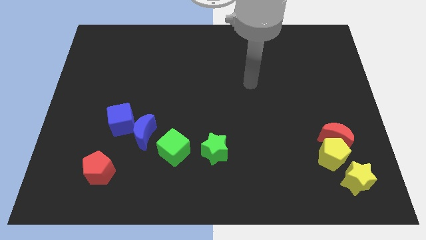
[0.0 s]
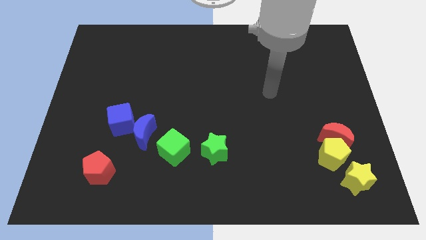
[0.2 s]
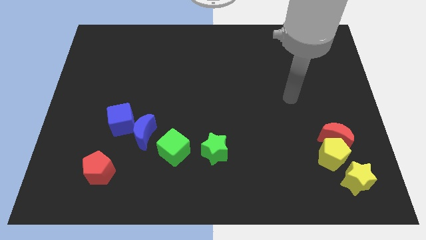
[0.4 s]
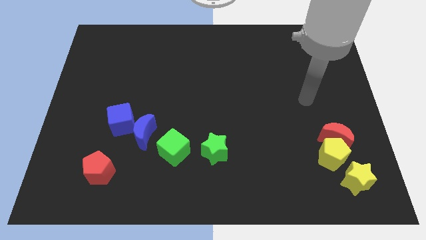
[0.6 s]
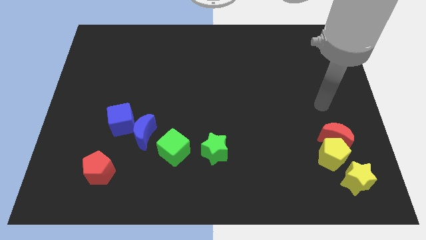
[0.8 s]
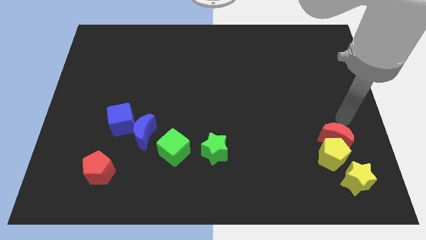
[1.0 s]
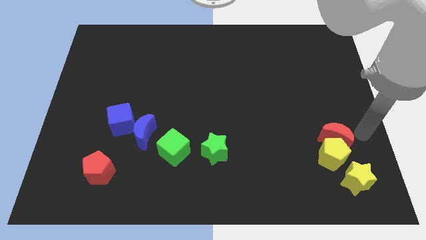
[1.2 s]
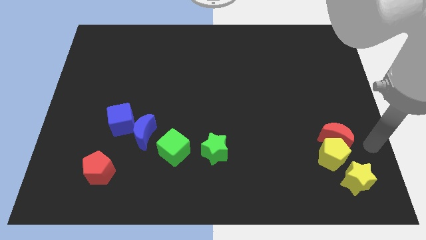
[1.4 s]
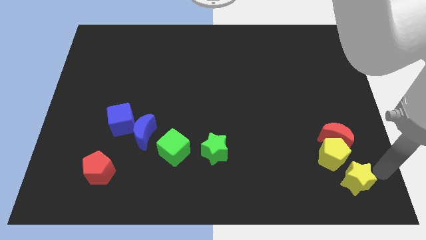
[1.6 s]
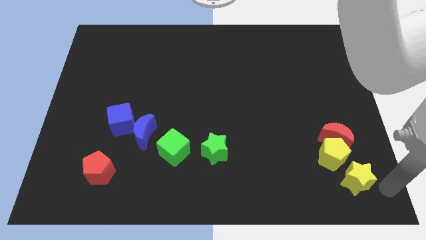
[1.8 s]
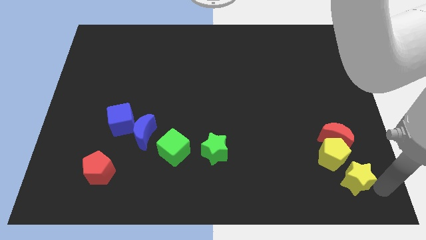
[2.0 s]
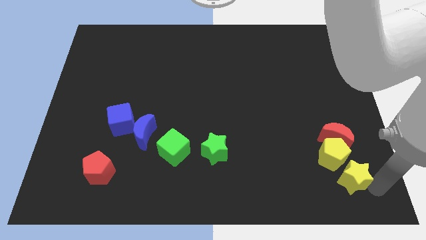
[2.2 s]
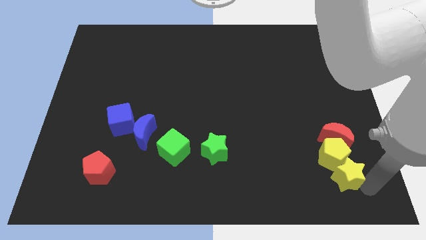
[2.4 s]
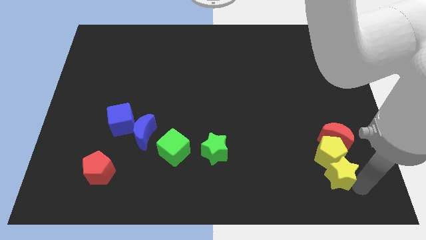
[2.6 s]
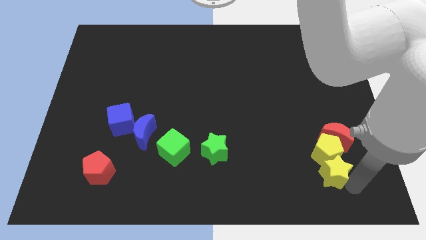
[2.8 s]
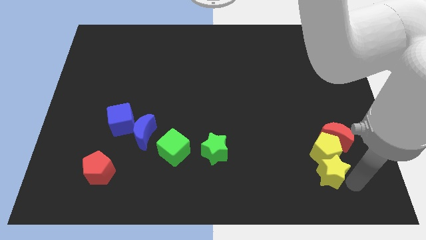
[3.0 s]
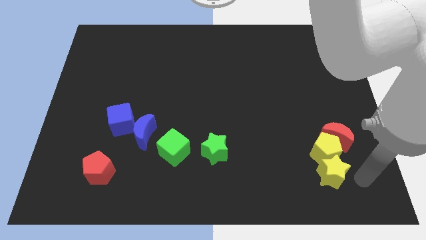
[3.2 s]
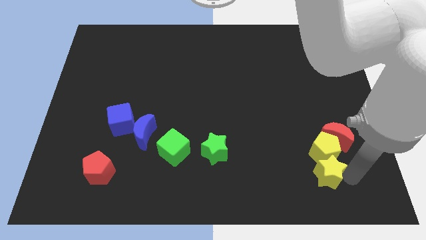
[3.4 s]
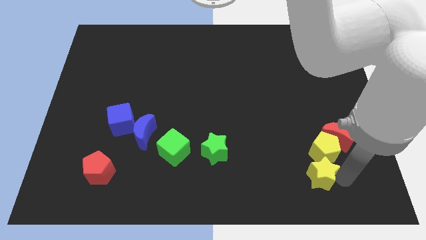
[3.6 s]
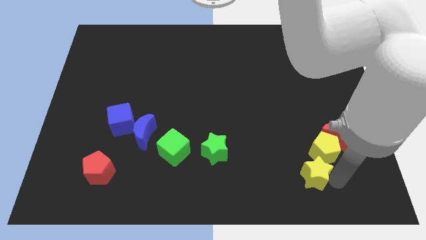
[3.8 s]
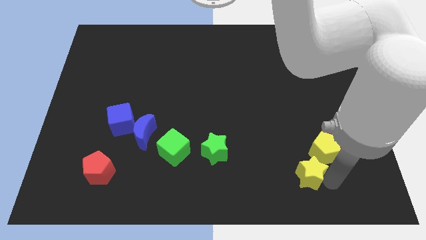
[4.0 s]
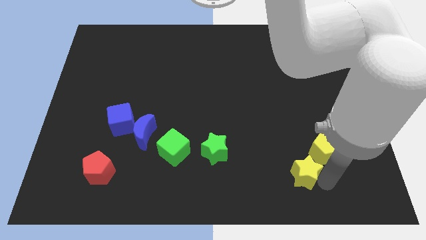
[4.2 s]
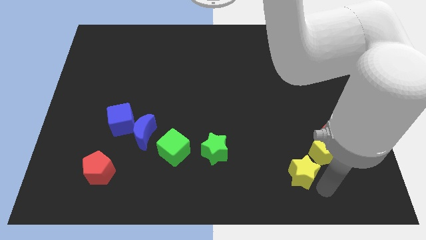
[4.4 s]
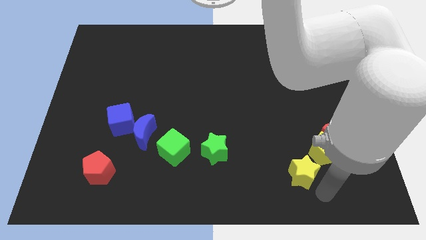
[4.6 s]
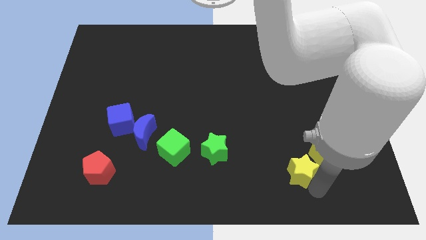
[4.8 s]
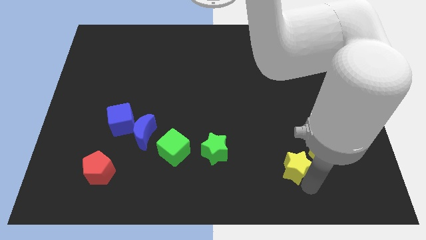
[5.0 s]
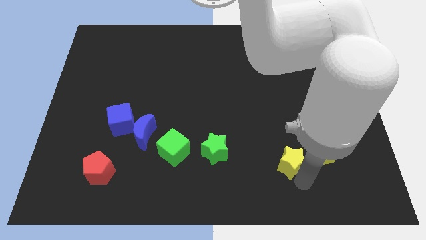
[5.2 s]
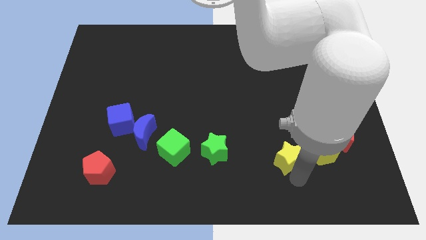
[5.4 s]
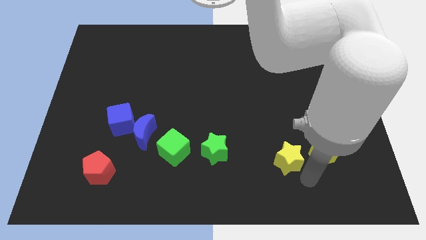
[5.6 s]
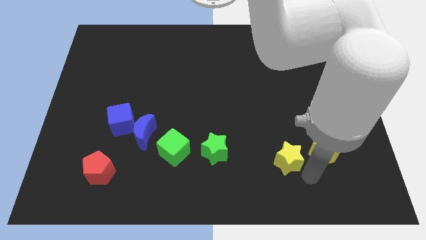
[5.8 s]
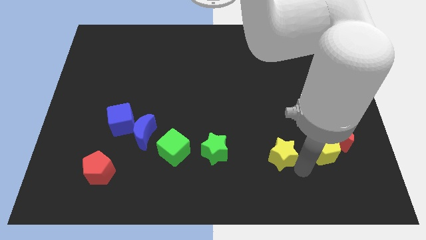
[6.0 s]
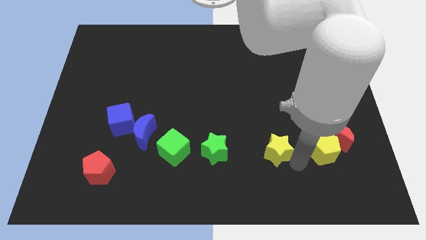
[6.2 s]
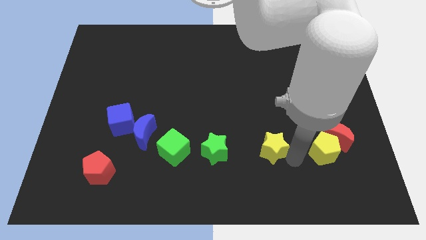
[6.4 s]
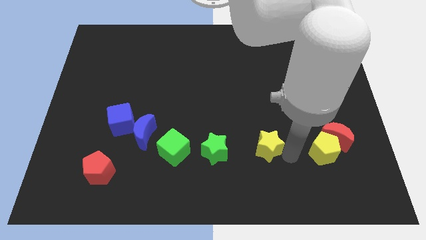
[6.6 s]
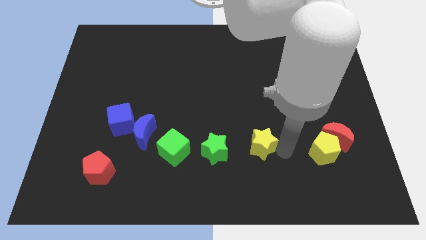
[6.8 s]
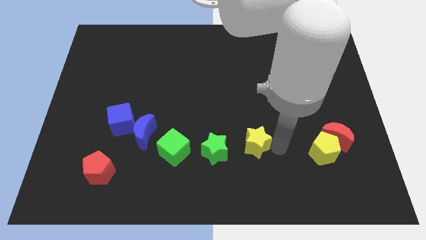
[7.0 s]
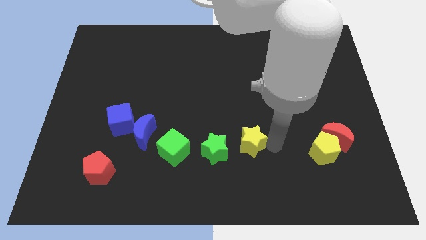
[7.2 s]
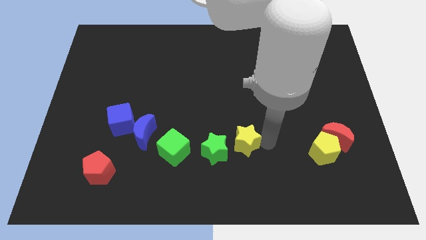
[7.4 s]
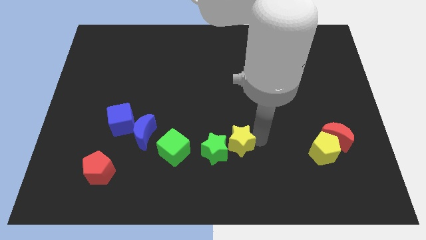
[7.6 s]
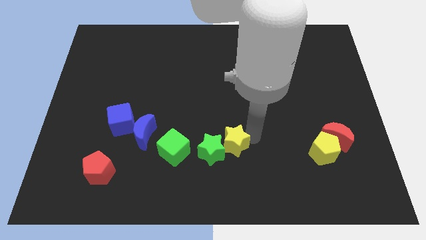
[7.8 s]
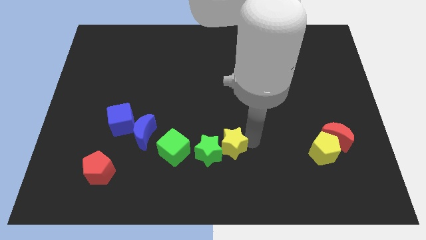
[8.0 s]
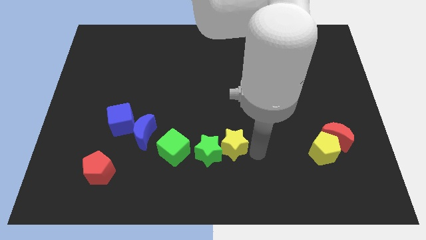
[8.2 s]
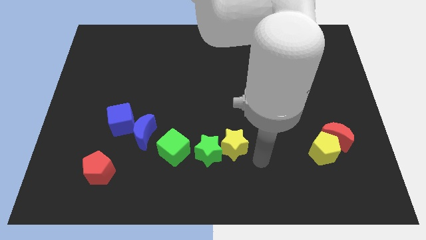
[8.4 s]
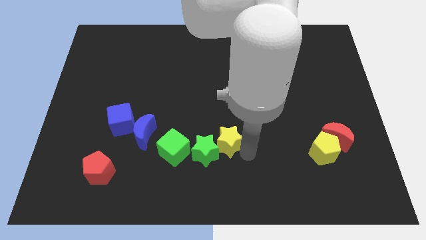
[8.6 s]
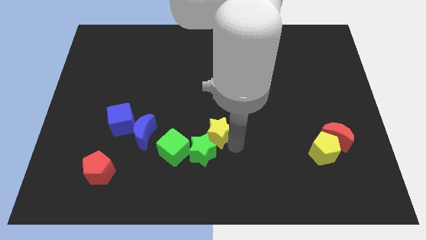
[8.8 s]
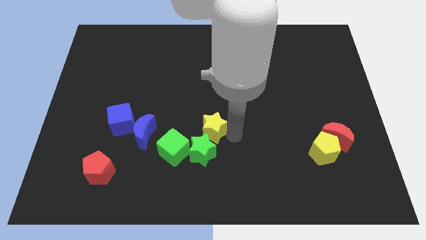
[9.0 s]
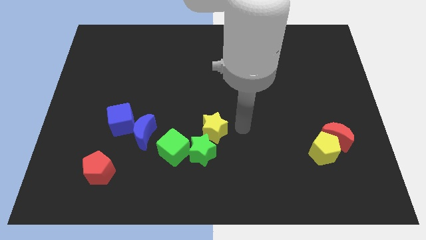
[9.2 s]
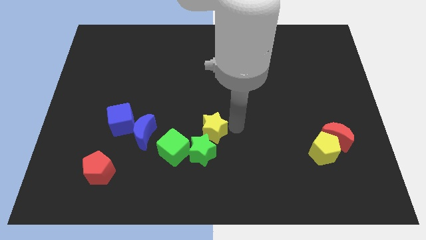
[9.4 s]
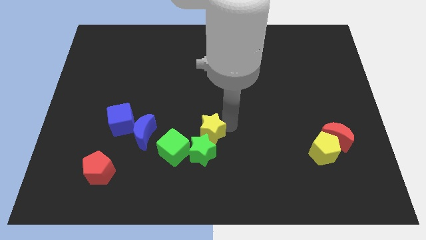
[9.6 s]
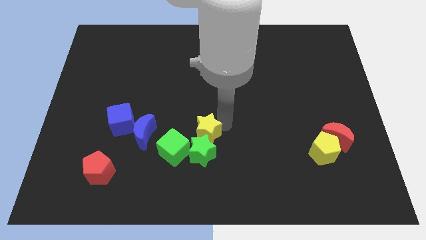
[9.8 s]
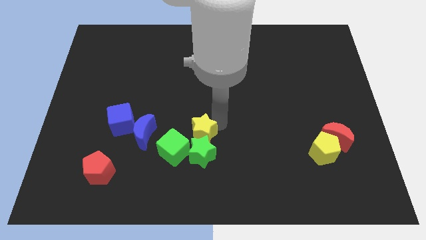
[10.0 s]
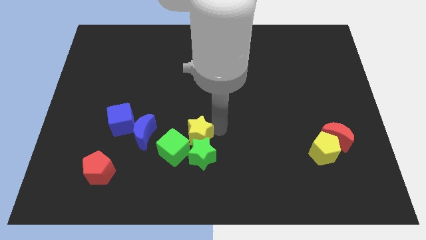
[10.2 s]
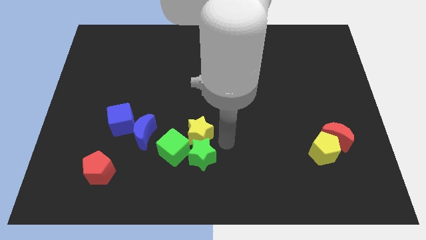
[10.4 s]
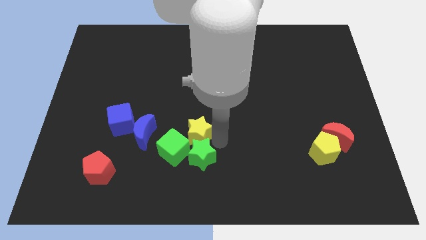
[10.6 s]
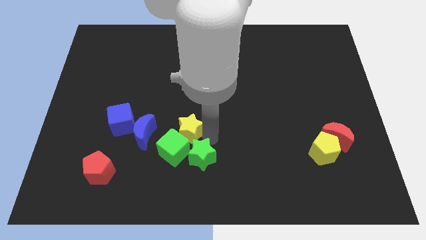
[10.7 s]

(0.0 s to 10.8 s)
push the yellow star to the right of the blue cube
